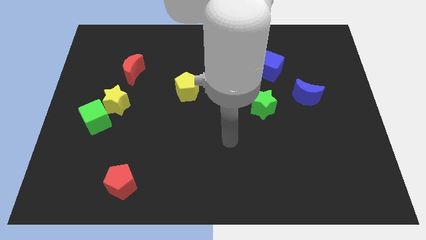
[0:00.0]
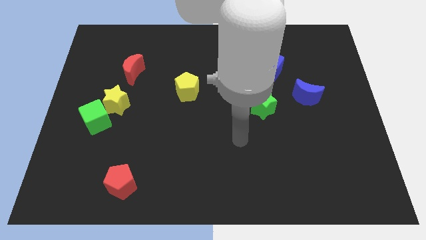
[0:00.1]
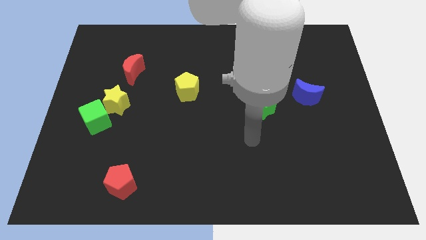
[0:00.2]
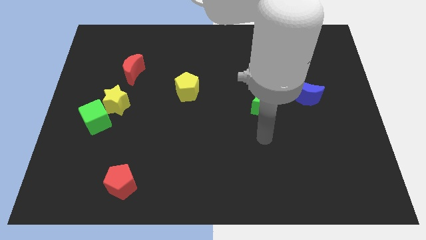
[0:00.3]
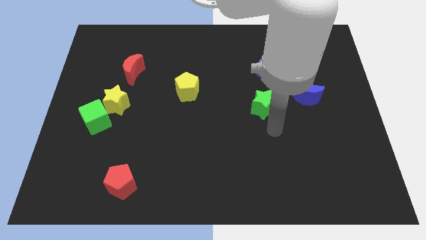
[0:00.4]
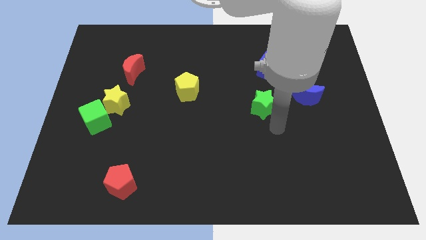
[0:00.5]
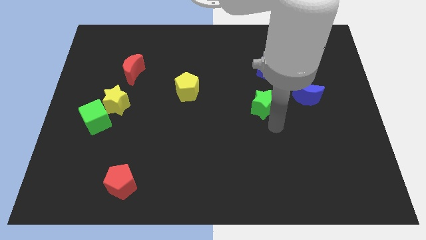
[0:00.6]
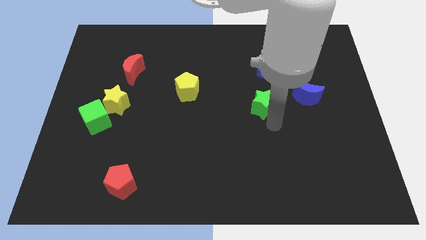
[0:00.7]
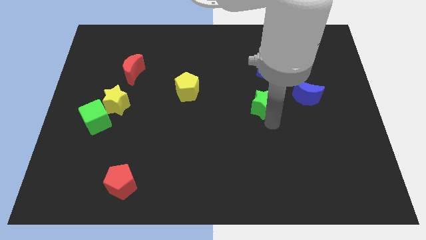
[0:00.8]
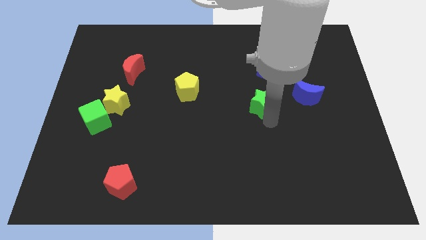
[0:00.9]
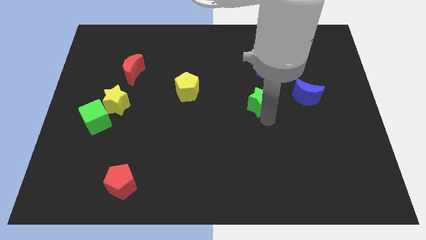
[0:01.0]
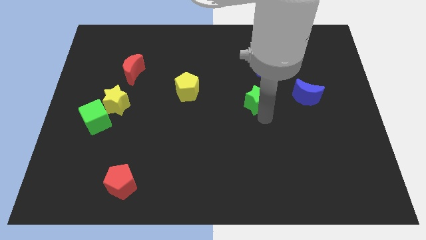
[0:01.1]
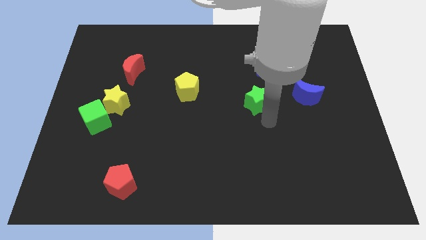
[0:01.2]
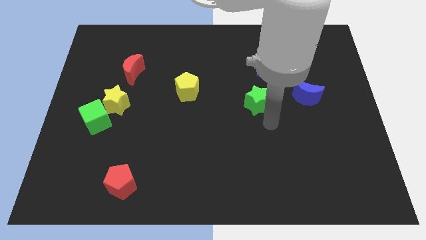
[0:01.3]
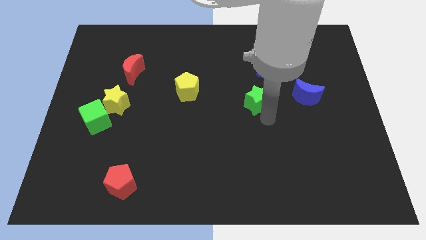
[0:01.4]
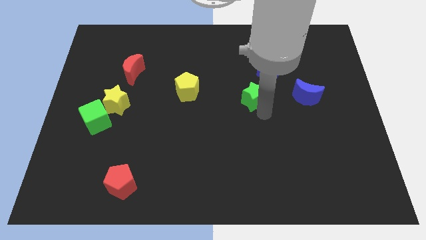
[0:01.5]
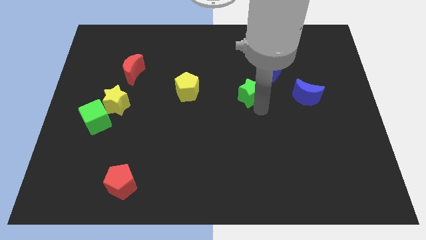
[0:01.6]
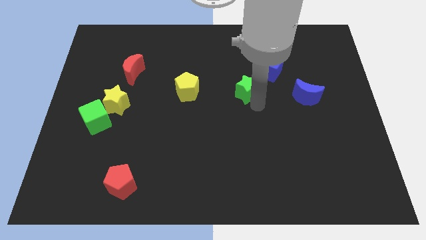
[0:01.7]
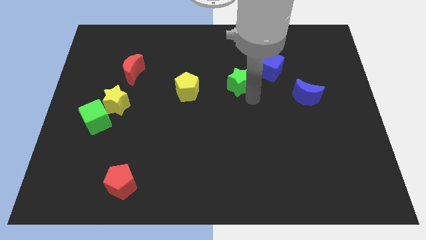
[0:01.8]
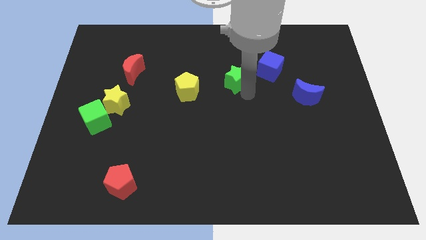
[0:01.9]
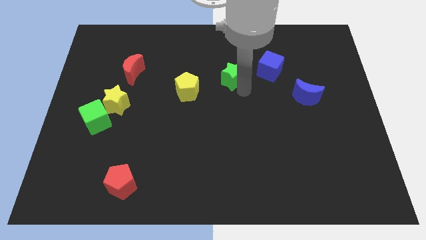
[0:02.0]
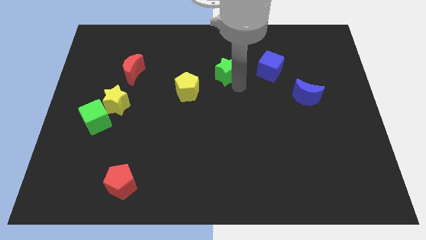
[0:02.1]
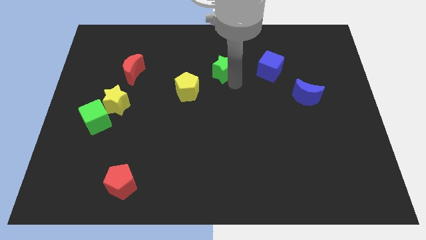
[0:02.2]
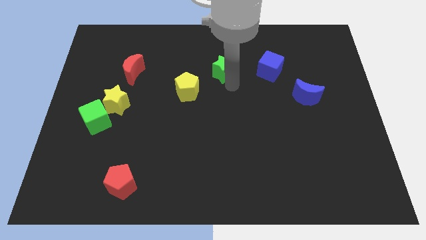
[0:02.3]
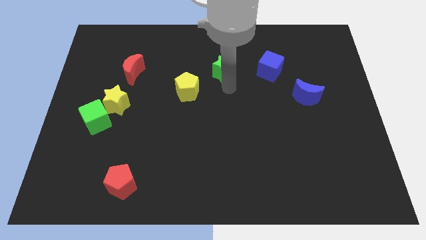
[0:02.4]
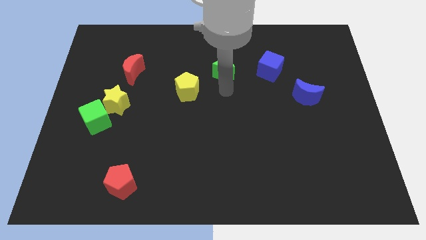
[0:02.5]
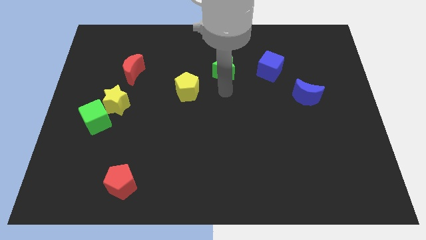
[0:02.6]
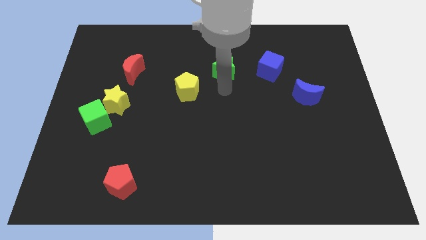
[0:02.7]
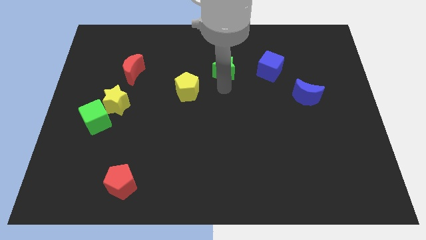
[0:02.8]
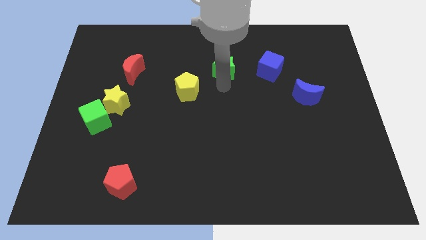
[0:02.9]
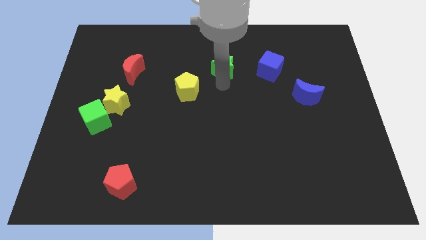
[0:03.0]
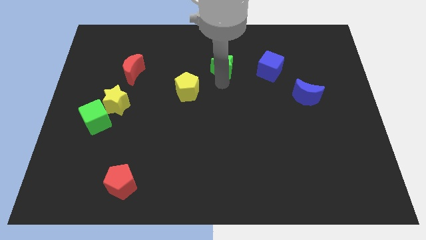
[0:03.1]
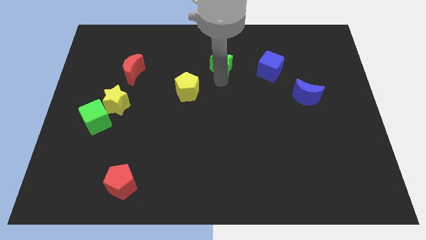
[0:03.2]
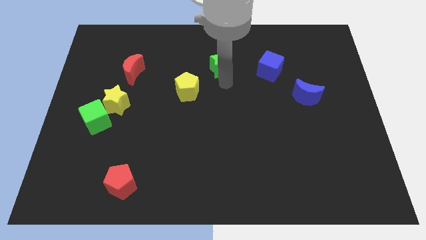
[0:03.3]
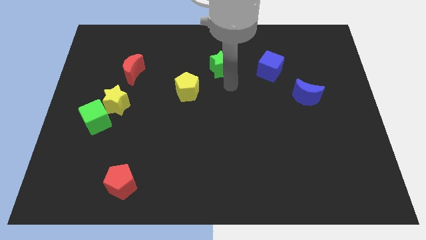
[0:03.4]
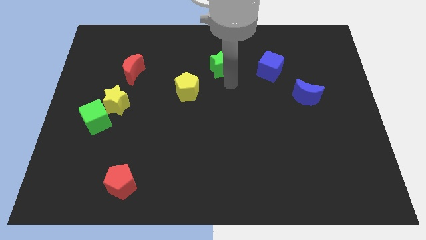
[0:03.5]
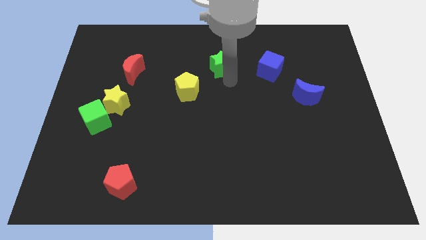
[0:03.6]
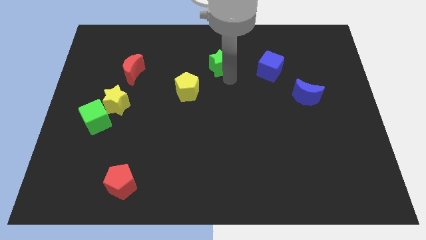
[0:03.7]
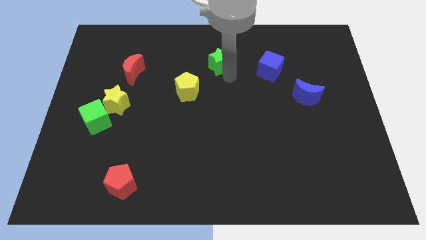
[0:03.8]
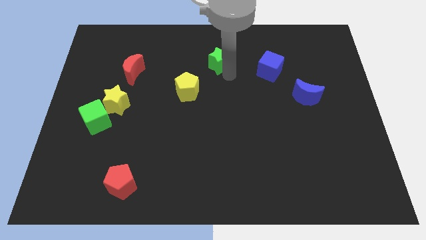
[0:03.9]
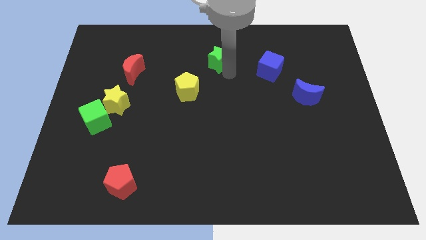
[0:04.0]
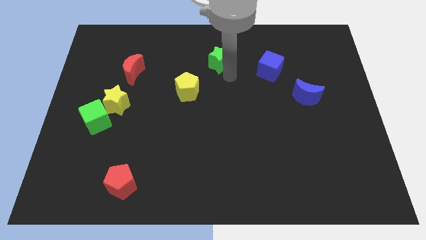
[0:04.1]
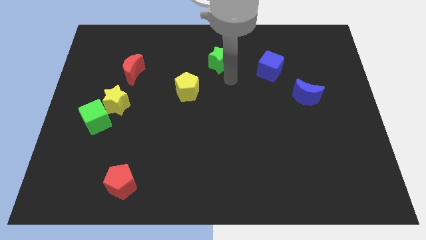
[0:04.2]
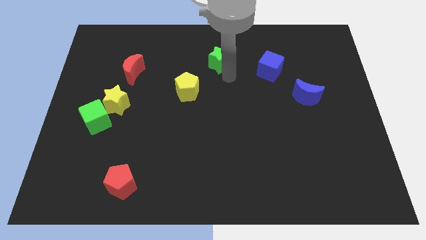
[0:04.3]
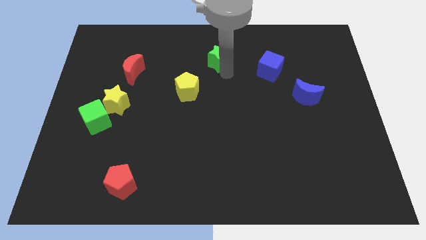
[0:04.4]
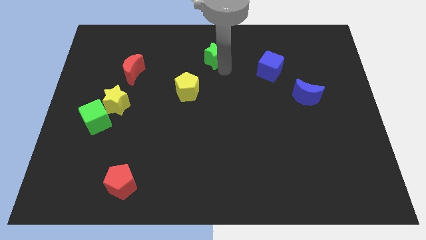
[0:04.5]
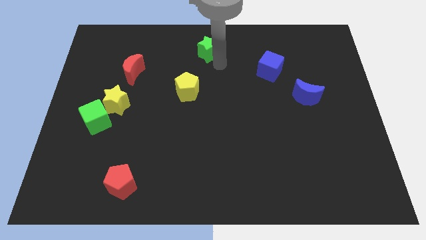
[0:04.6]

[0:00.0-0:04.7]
slide the green star to the towards your base

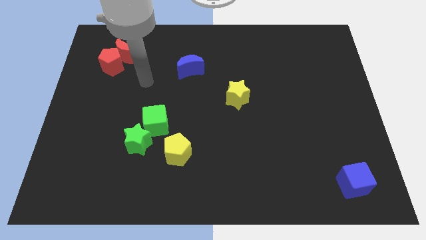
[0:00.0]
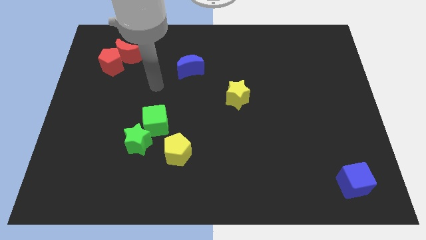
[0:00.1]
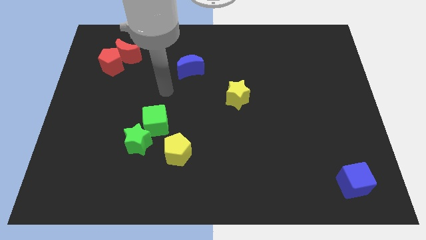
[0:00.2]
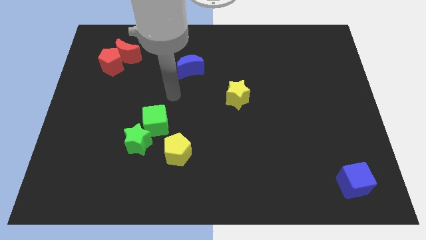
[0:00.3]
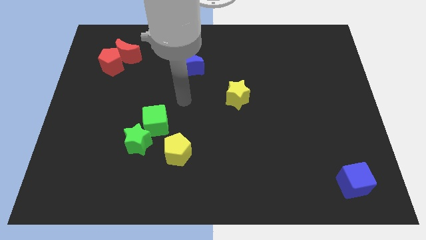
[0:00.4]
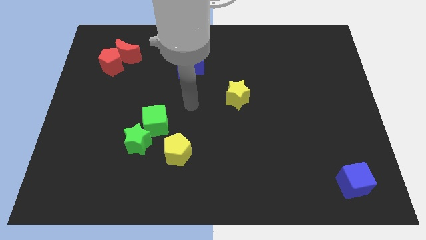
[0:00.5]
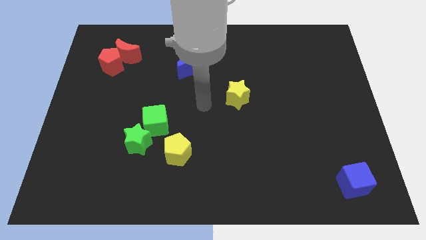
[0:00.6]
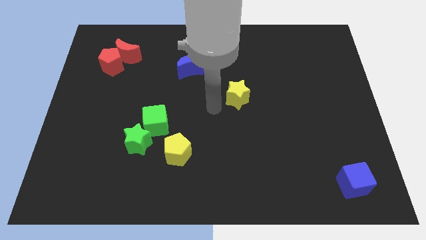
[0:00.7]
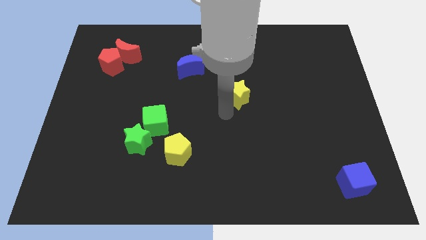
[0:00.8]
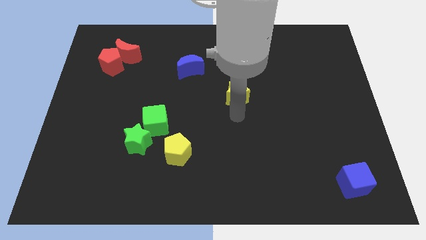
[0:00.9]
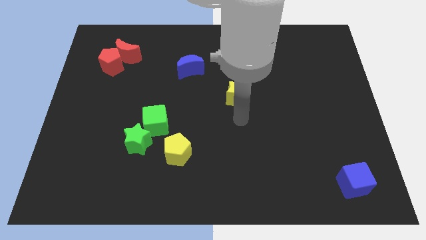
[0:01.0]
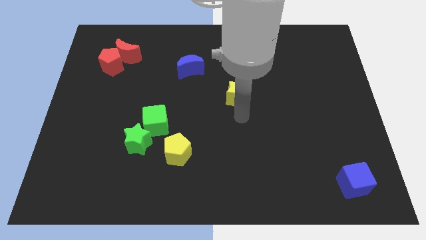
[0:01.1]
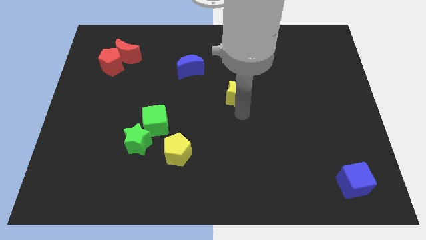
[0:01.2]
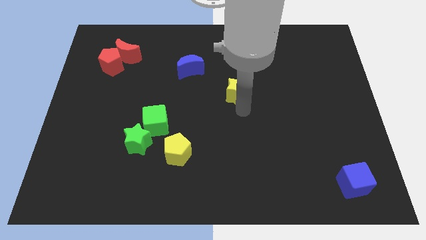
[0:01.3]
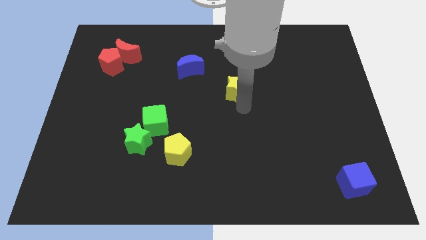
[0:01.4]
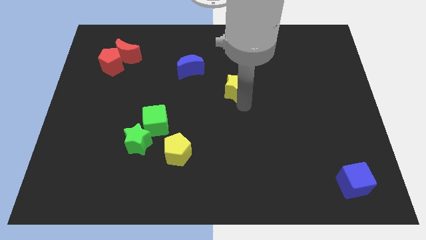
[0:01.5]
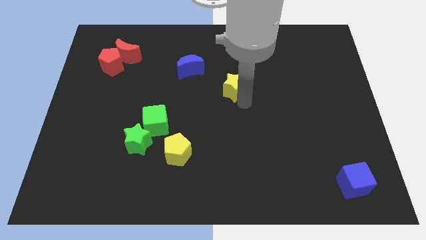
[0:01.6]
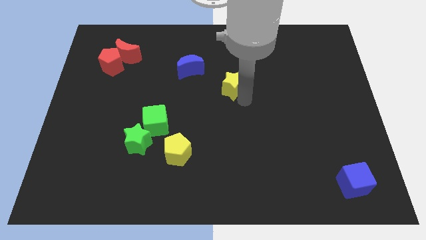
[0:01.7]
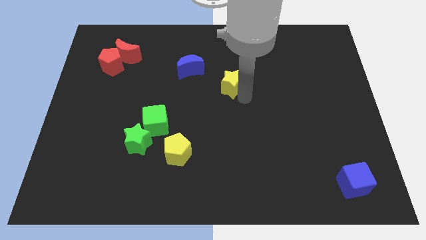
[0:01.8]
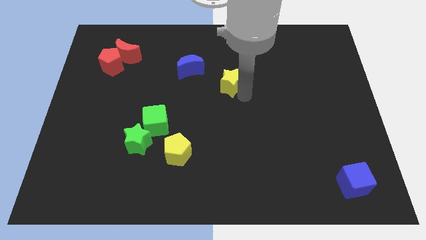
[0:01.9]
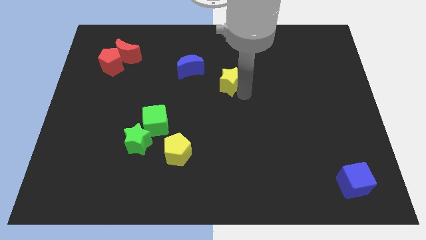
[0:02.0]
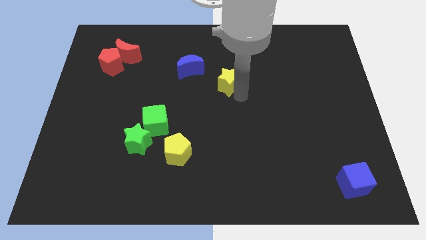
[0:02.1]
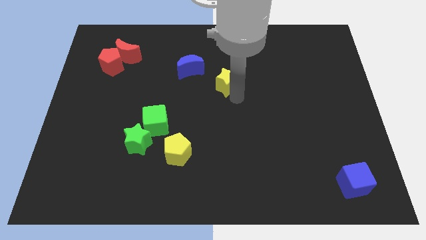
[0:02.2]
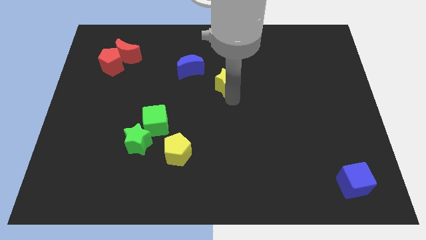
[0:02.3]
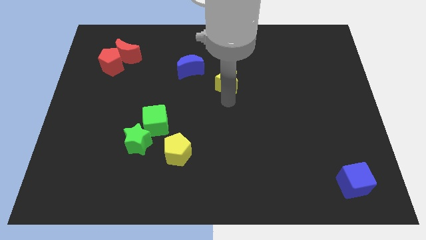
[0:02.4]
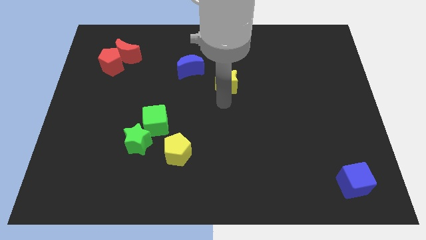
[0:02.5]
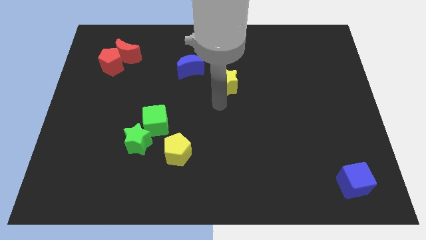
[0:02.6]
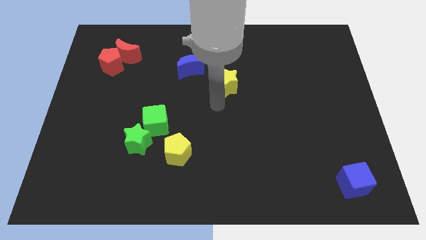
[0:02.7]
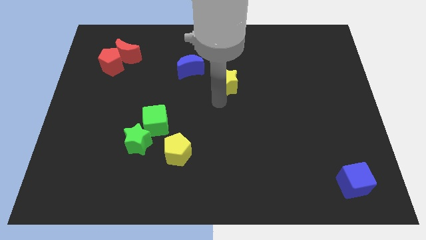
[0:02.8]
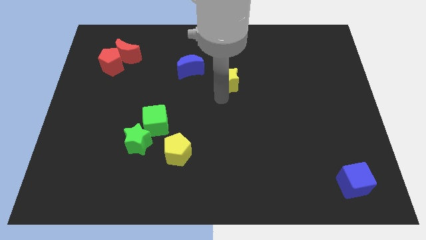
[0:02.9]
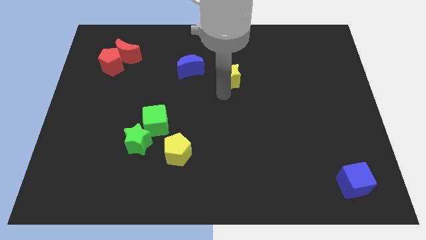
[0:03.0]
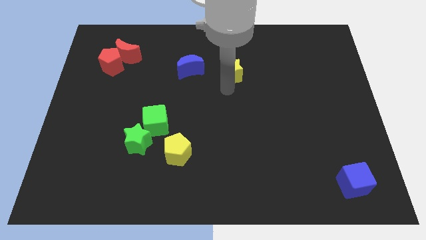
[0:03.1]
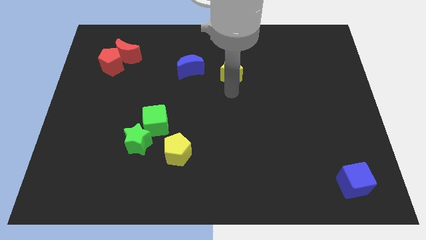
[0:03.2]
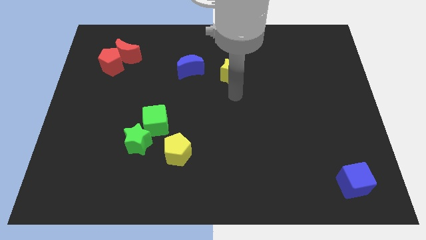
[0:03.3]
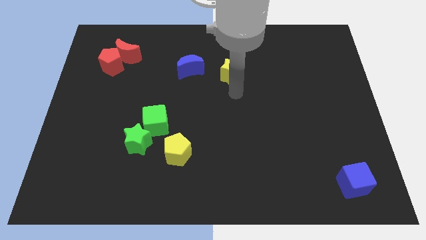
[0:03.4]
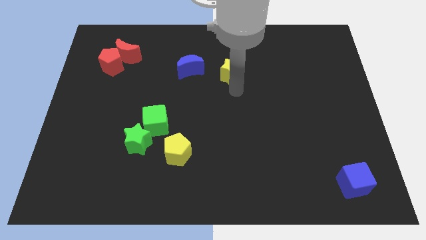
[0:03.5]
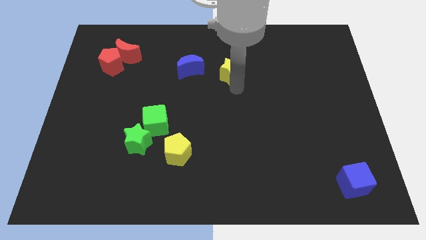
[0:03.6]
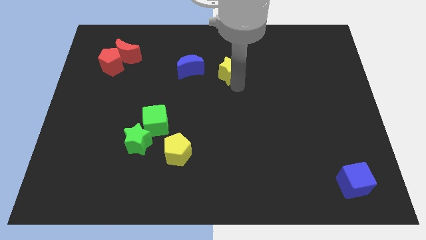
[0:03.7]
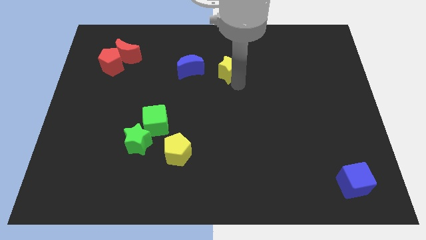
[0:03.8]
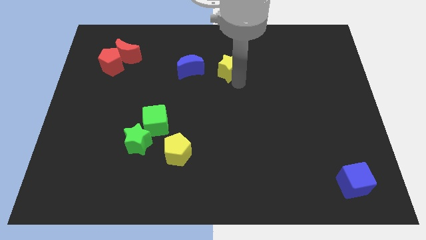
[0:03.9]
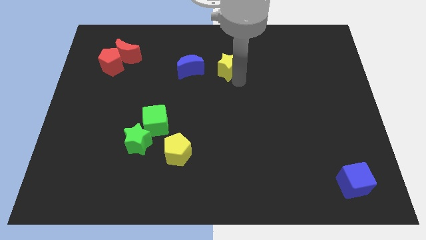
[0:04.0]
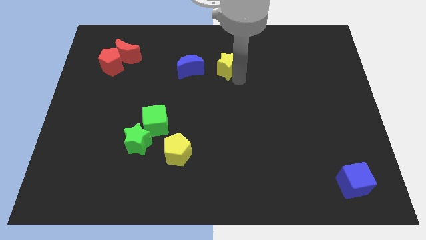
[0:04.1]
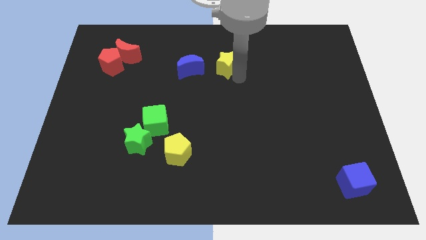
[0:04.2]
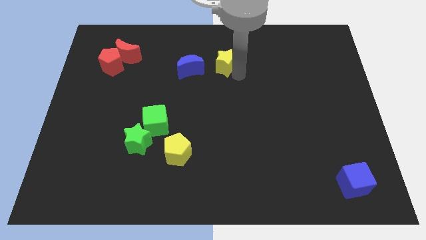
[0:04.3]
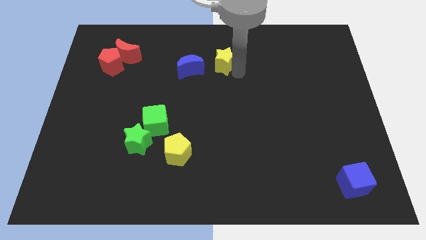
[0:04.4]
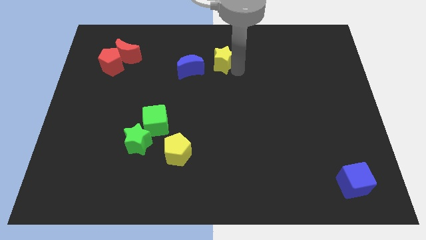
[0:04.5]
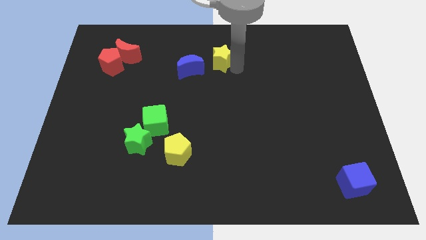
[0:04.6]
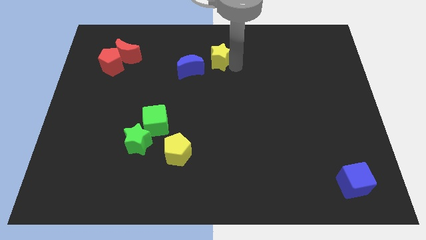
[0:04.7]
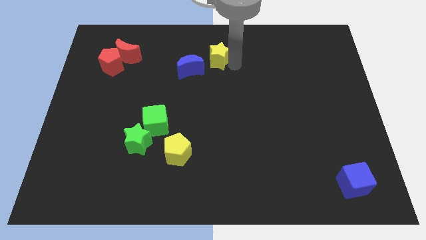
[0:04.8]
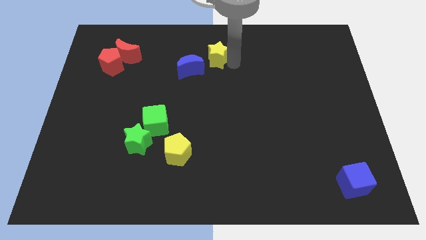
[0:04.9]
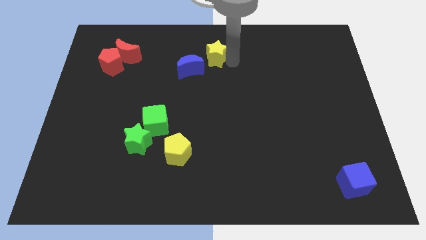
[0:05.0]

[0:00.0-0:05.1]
move the yellow star to the top
